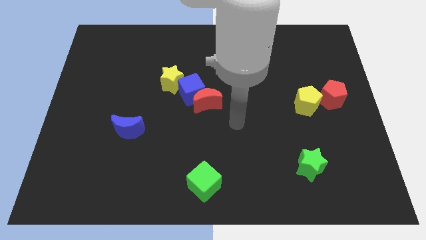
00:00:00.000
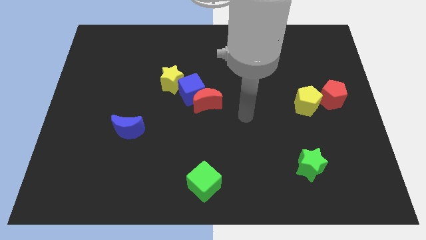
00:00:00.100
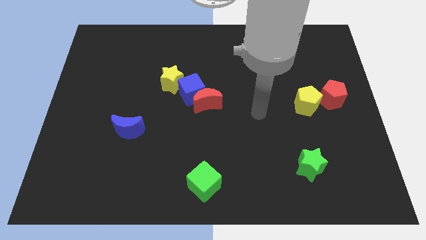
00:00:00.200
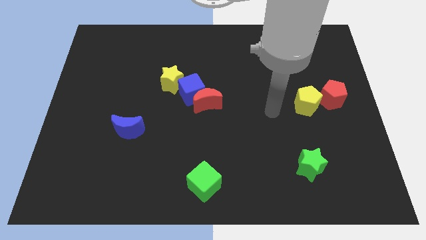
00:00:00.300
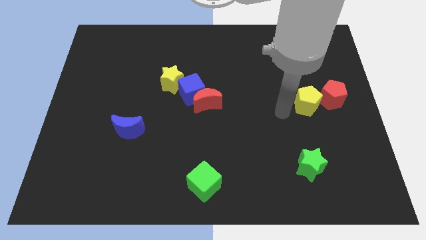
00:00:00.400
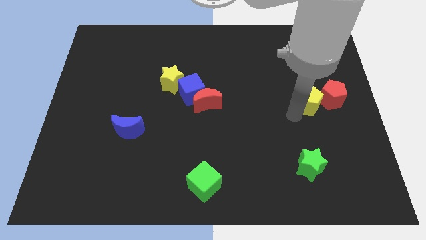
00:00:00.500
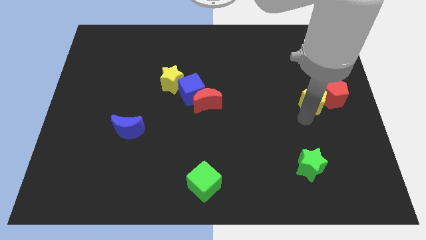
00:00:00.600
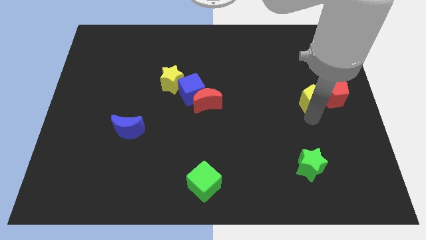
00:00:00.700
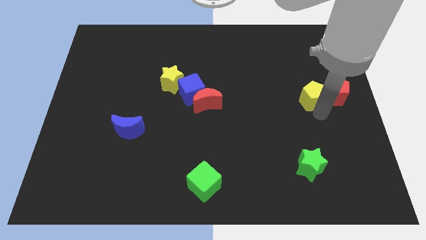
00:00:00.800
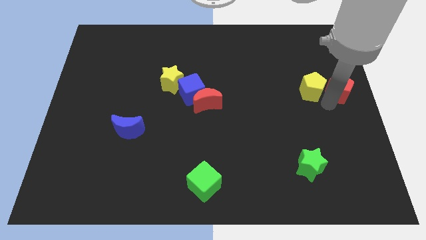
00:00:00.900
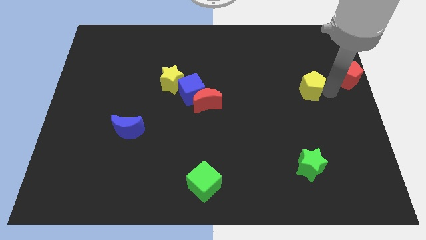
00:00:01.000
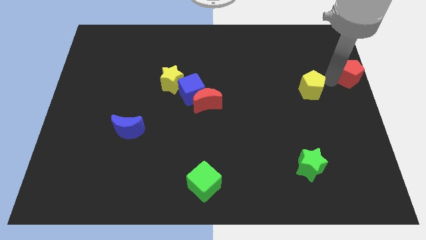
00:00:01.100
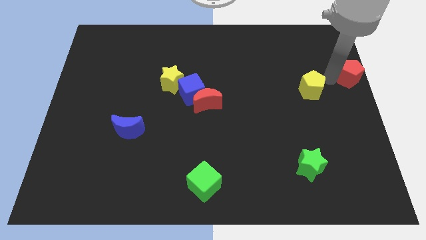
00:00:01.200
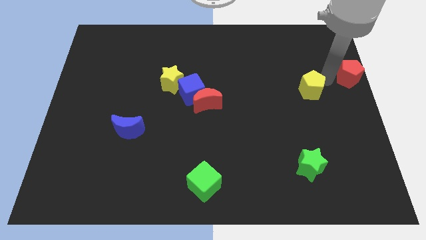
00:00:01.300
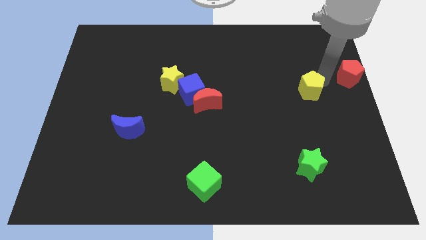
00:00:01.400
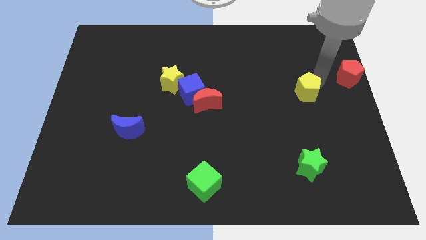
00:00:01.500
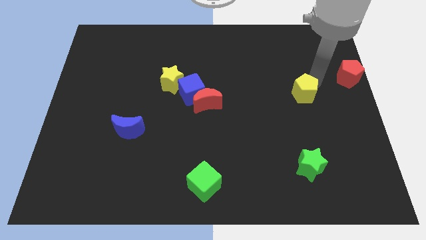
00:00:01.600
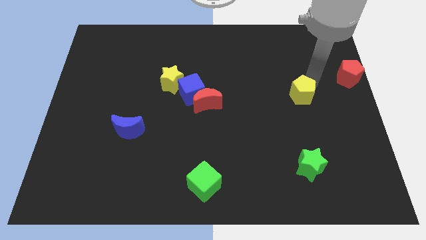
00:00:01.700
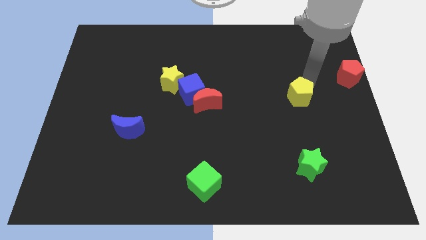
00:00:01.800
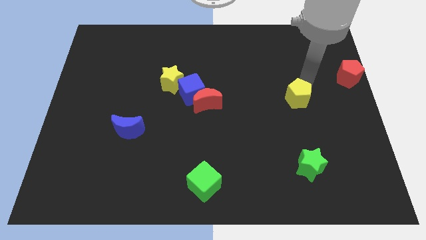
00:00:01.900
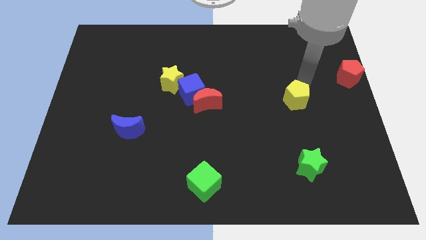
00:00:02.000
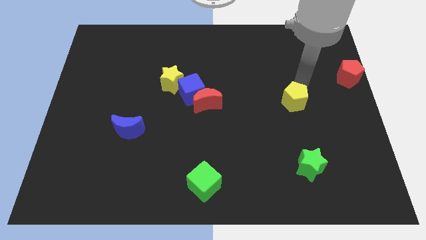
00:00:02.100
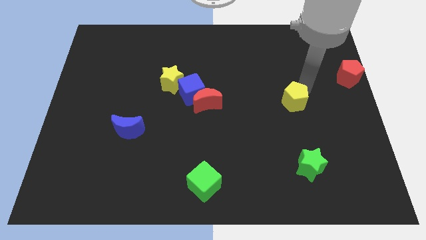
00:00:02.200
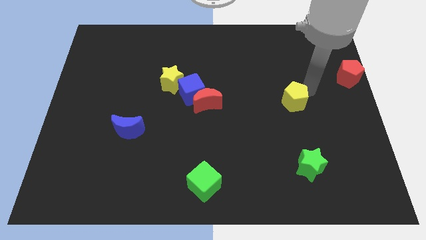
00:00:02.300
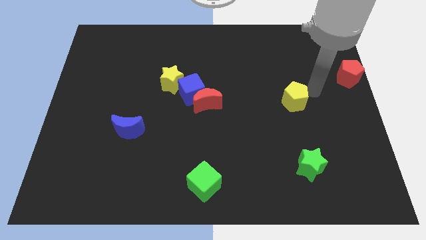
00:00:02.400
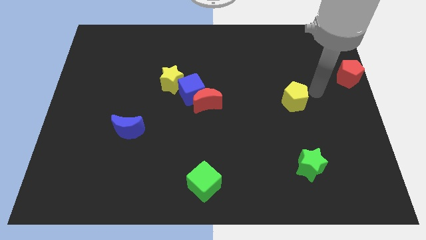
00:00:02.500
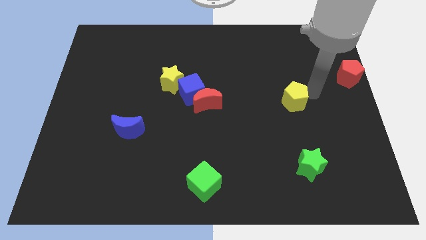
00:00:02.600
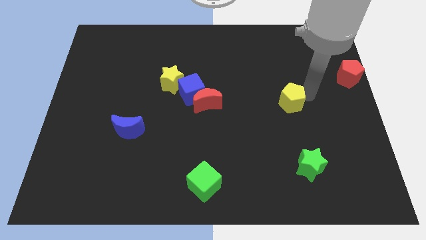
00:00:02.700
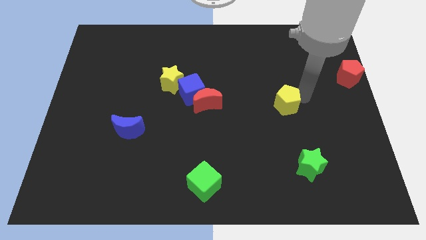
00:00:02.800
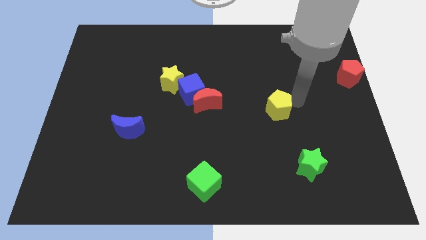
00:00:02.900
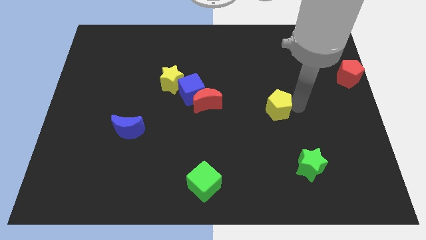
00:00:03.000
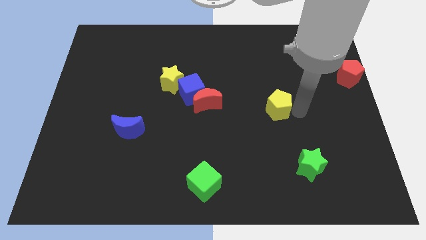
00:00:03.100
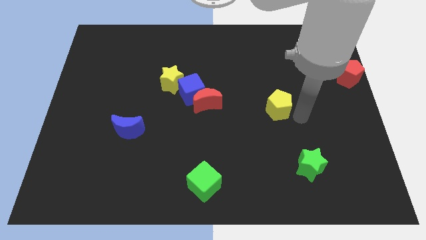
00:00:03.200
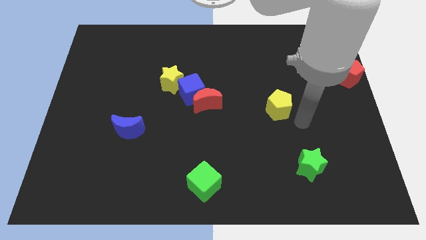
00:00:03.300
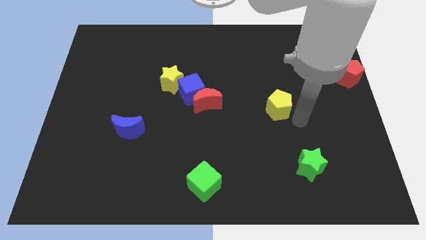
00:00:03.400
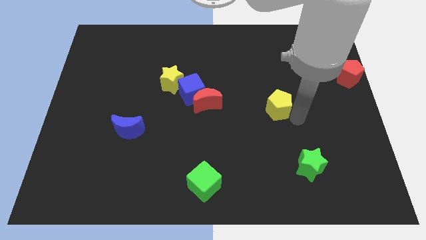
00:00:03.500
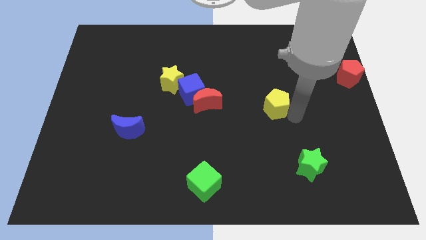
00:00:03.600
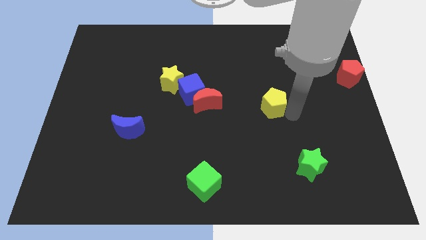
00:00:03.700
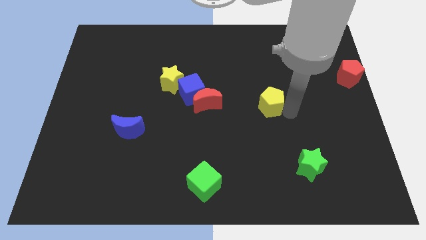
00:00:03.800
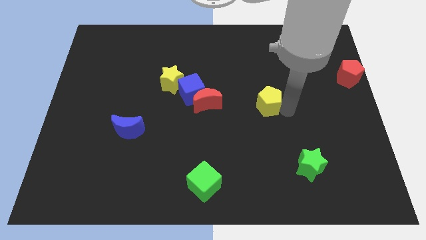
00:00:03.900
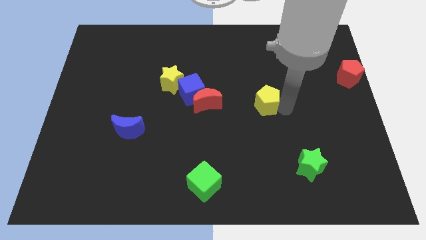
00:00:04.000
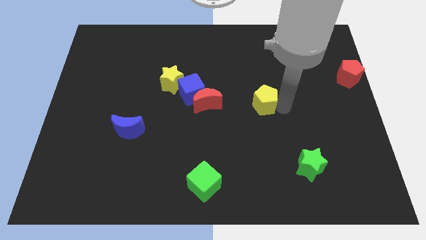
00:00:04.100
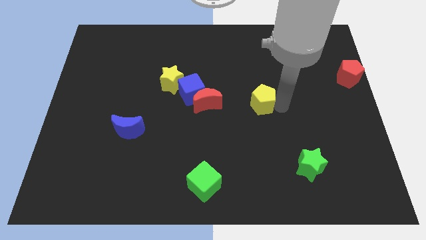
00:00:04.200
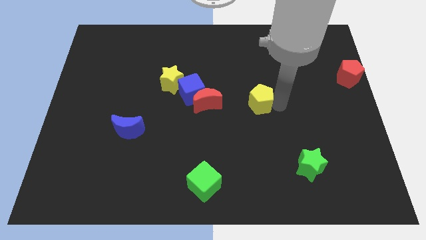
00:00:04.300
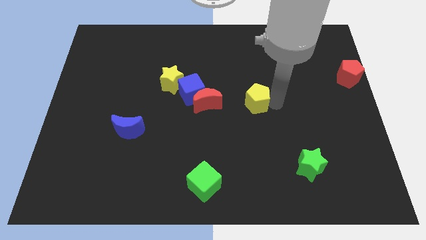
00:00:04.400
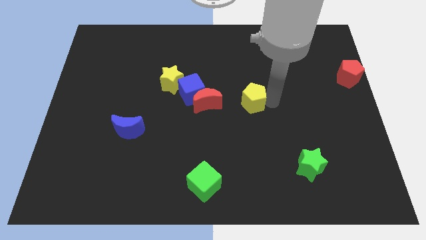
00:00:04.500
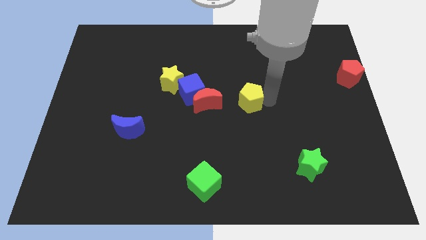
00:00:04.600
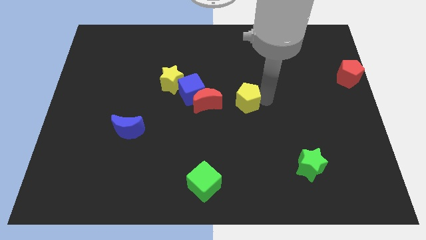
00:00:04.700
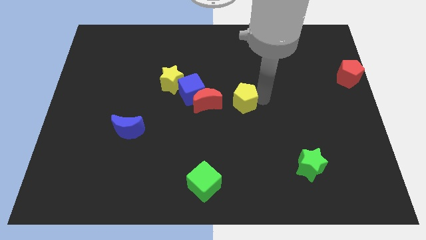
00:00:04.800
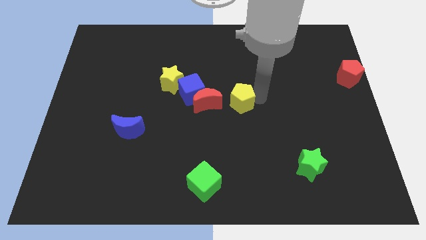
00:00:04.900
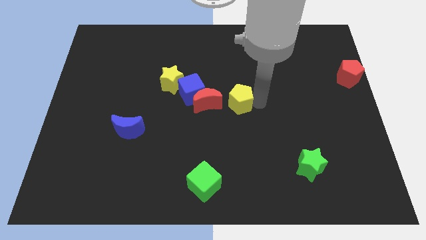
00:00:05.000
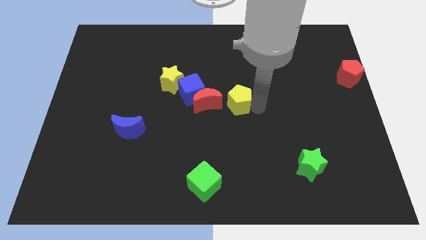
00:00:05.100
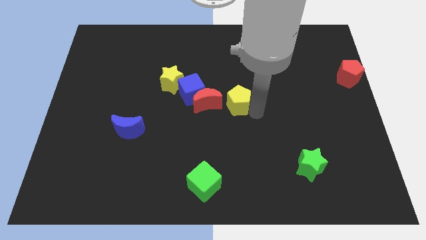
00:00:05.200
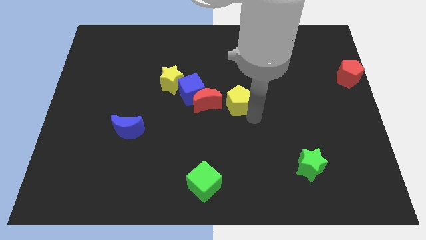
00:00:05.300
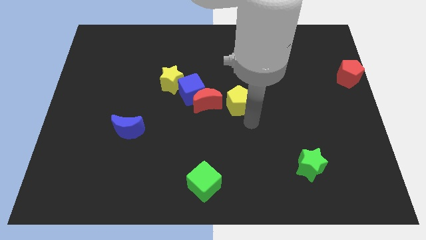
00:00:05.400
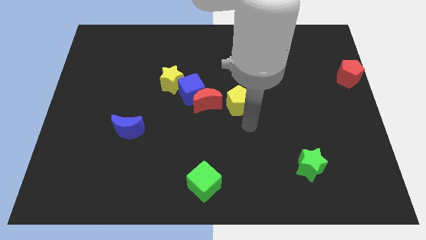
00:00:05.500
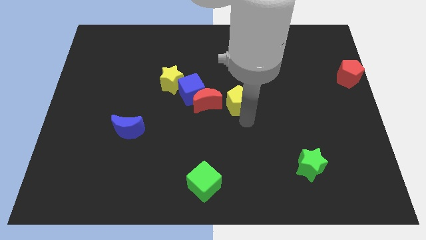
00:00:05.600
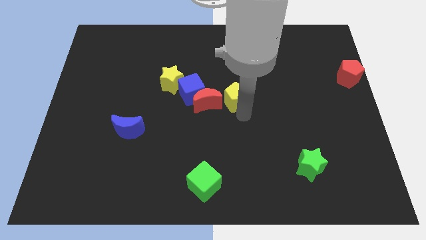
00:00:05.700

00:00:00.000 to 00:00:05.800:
put the yellow pentagon to the top right of the red moon

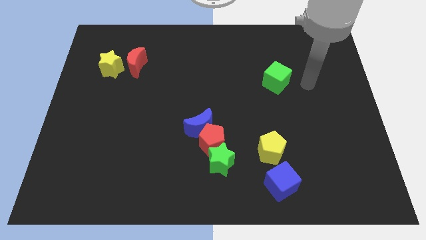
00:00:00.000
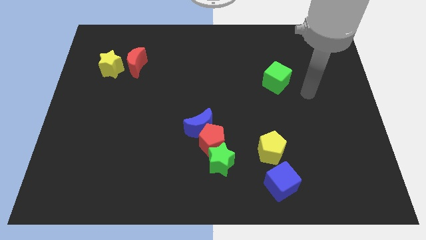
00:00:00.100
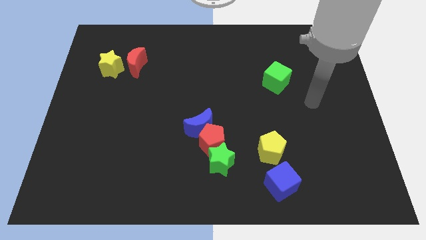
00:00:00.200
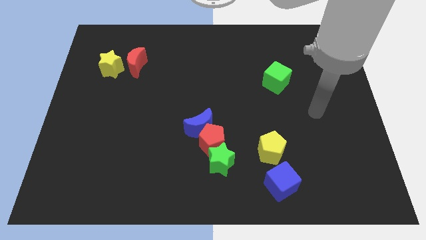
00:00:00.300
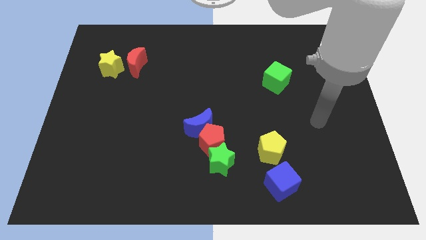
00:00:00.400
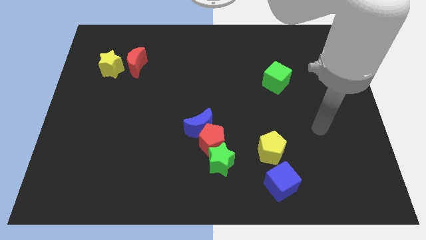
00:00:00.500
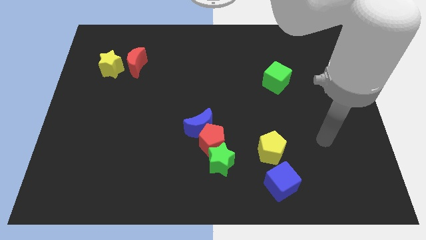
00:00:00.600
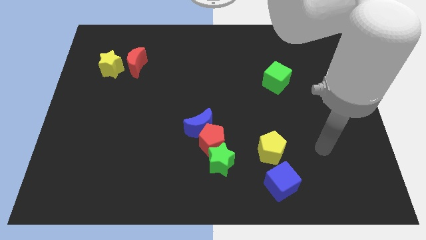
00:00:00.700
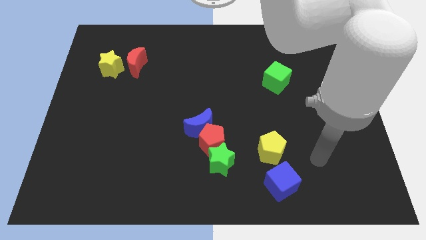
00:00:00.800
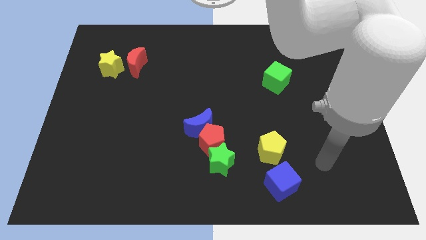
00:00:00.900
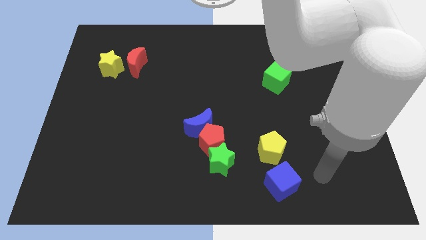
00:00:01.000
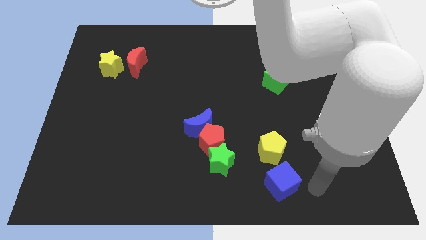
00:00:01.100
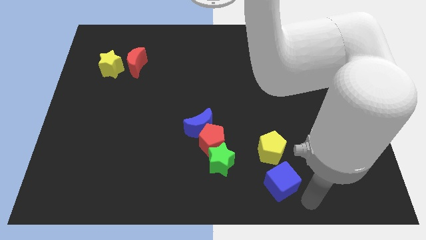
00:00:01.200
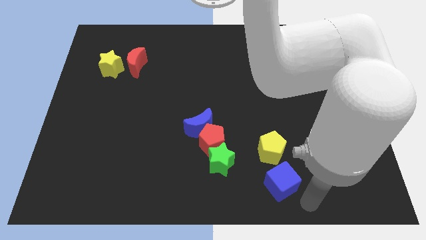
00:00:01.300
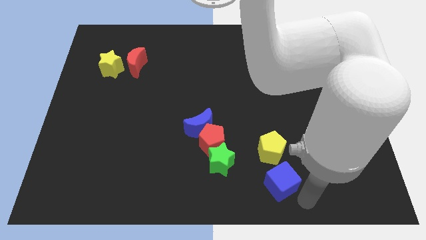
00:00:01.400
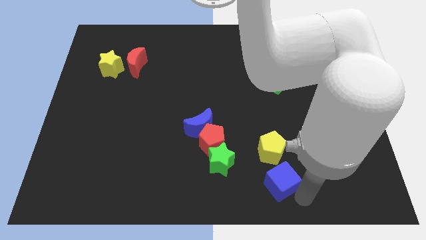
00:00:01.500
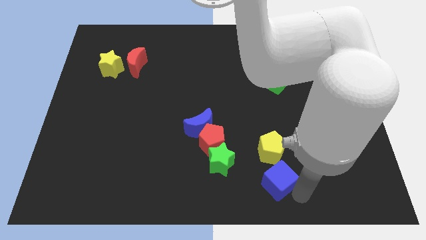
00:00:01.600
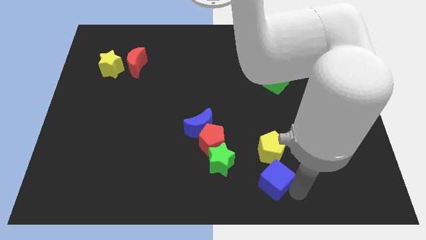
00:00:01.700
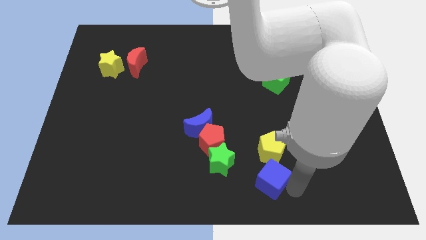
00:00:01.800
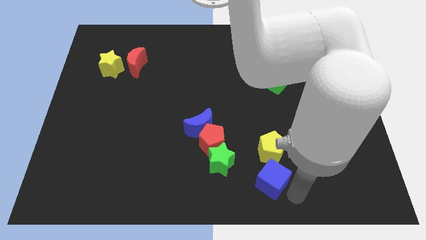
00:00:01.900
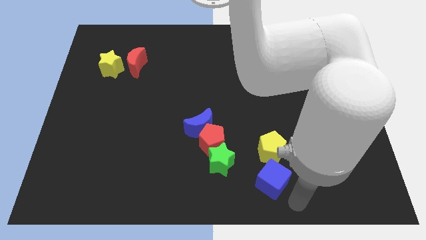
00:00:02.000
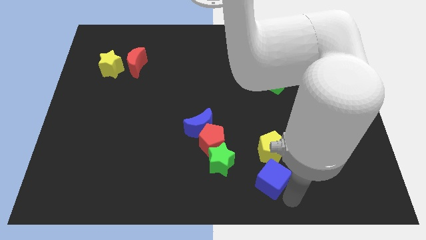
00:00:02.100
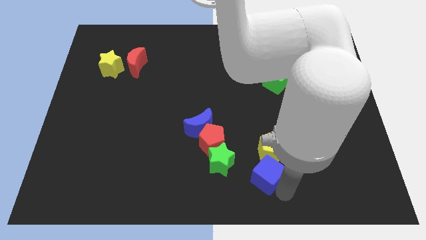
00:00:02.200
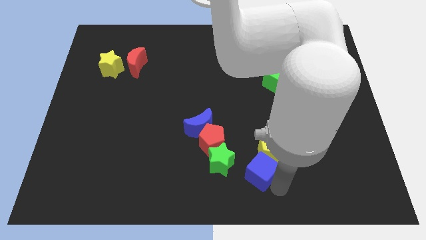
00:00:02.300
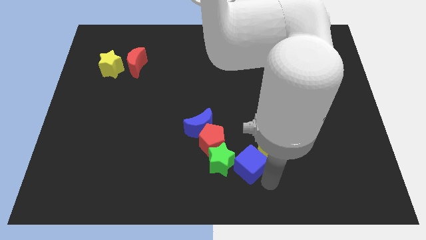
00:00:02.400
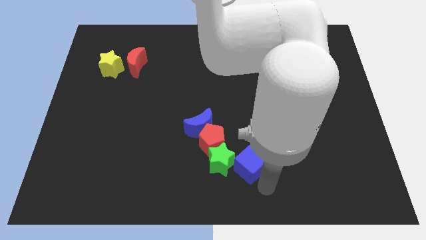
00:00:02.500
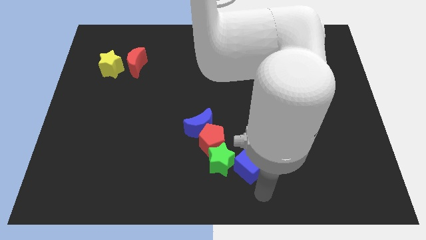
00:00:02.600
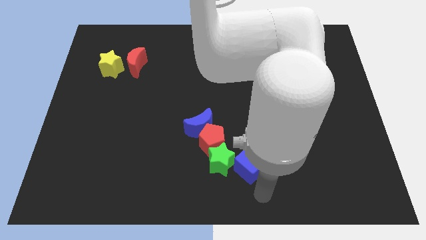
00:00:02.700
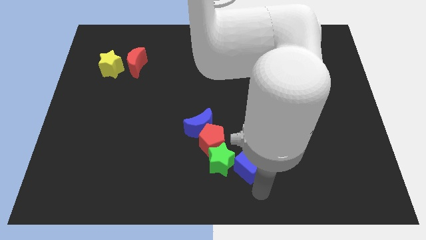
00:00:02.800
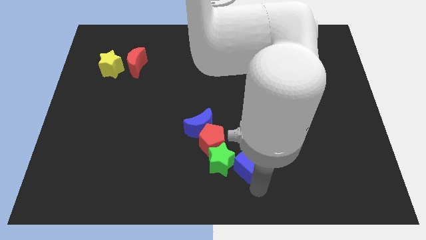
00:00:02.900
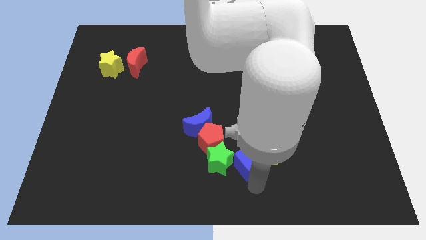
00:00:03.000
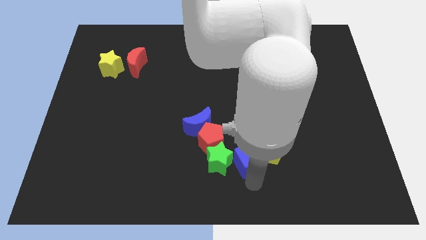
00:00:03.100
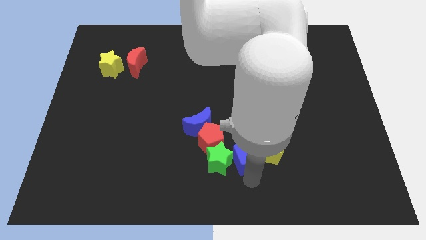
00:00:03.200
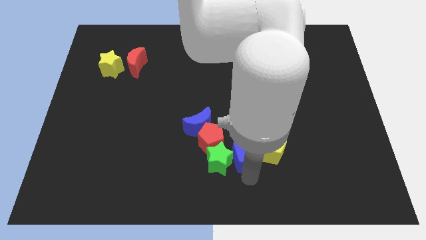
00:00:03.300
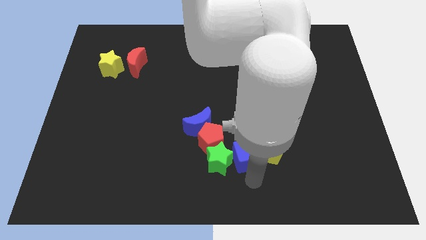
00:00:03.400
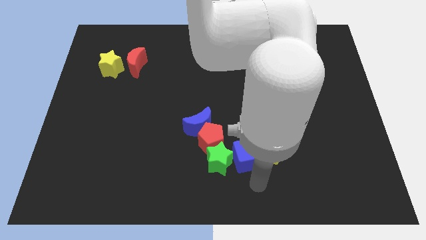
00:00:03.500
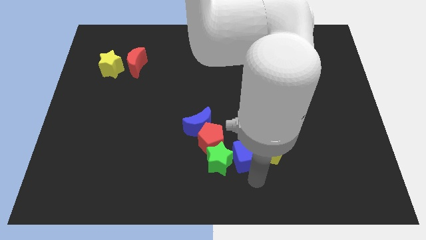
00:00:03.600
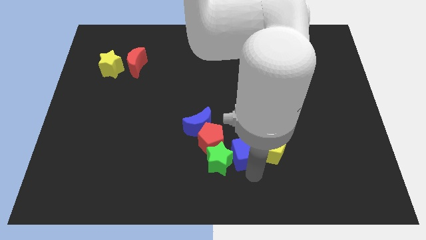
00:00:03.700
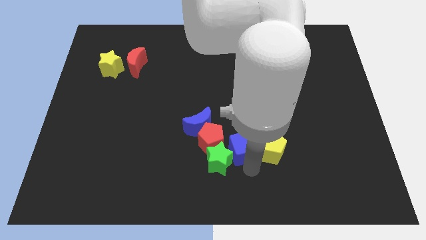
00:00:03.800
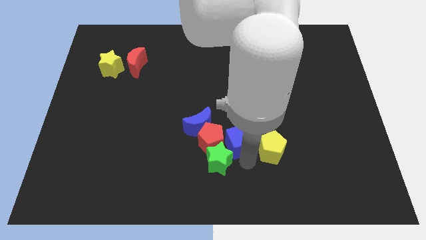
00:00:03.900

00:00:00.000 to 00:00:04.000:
put the blue cube to the top right side of the red pentagon
